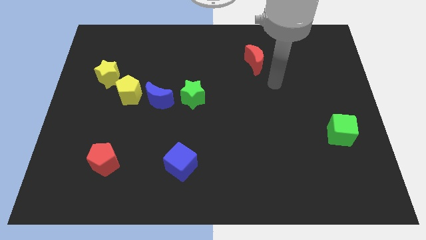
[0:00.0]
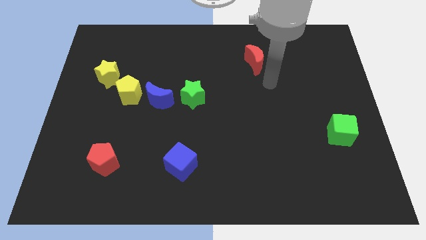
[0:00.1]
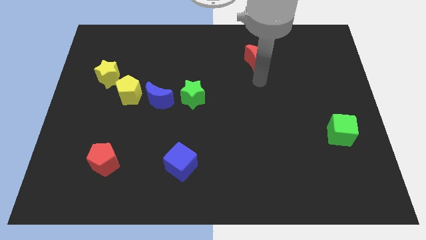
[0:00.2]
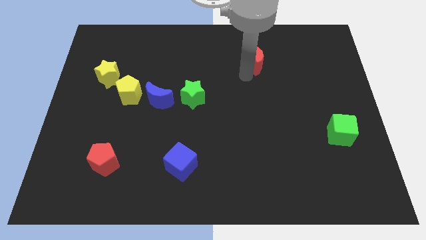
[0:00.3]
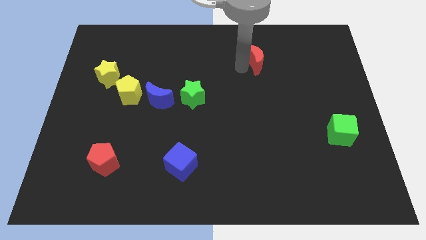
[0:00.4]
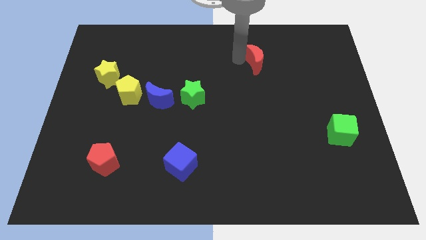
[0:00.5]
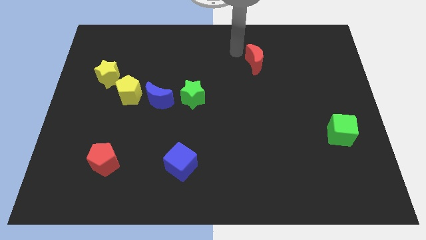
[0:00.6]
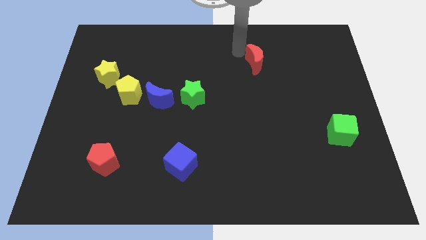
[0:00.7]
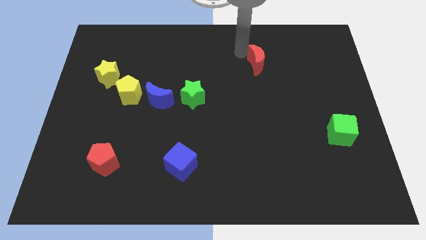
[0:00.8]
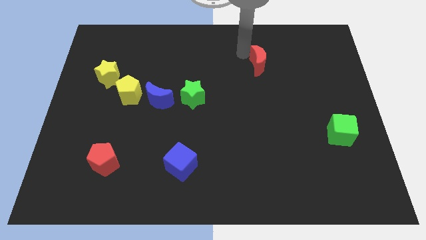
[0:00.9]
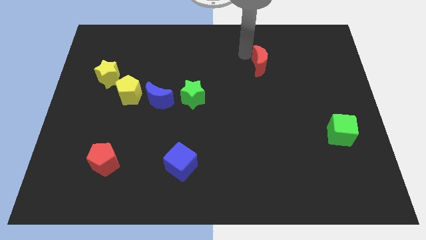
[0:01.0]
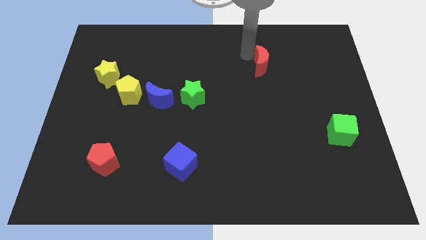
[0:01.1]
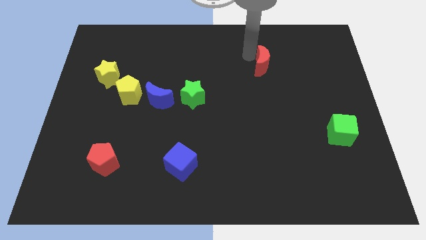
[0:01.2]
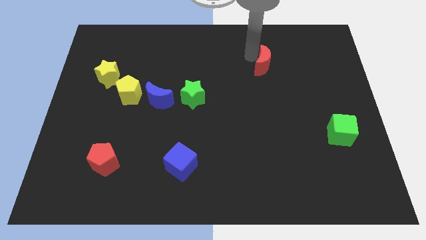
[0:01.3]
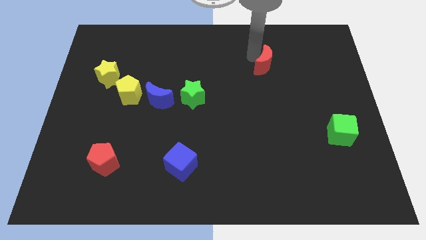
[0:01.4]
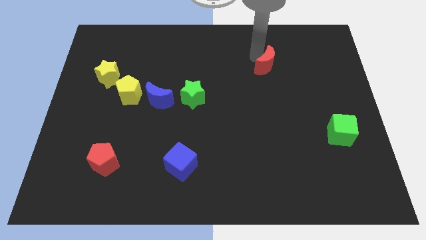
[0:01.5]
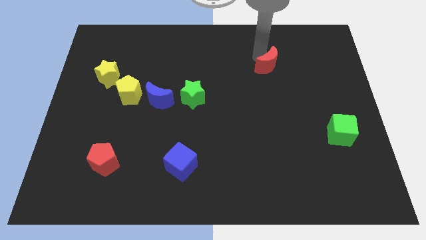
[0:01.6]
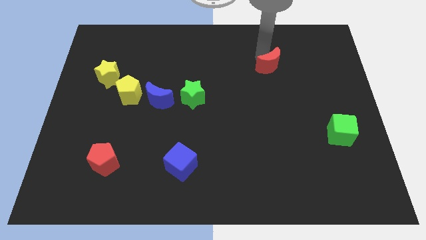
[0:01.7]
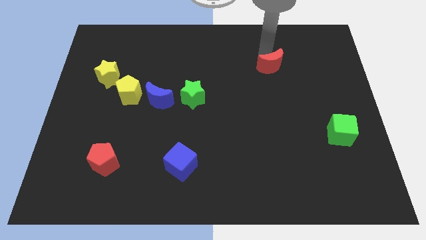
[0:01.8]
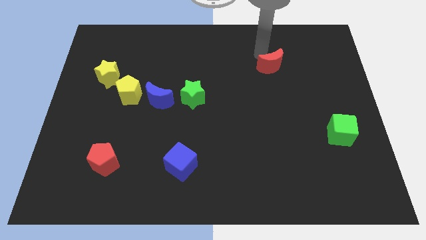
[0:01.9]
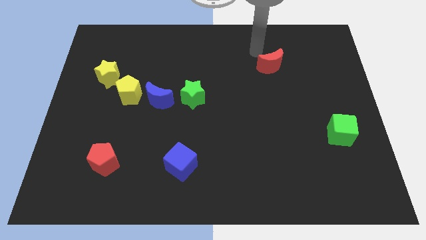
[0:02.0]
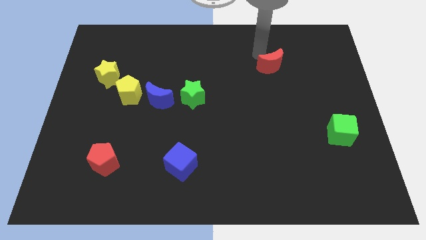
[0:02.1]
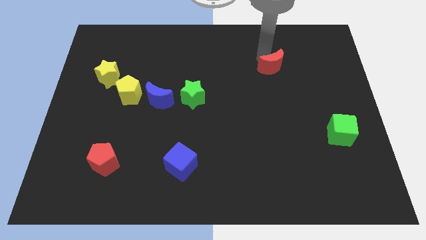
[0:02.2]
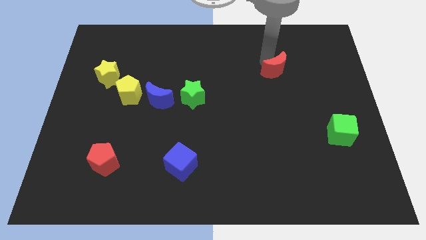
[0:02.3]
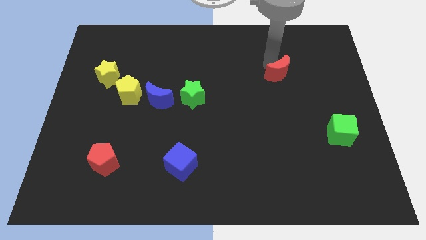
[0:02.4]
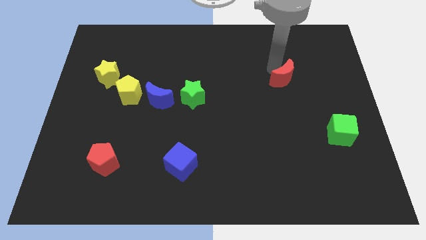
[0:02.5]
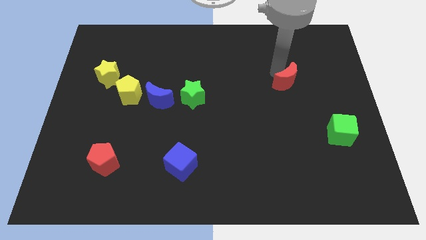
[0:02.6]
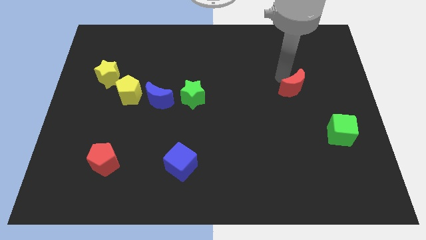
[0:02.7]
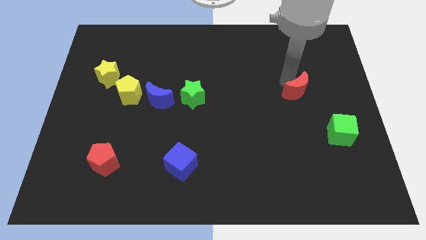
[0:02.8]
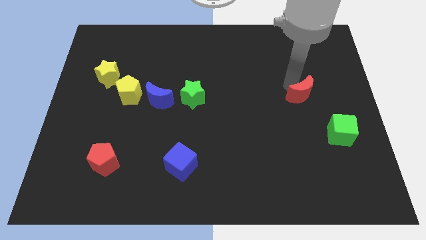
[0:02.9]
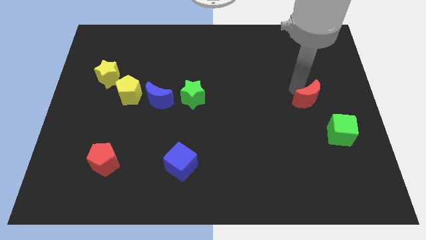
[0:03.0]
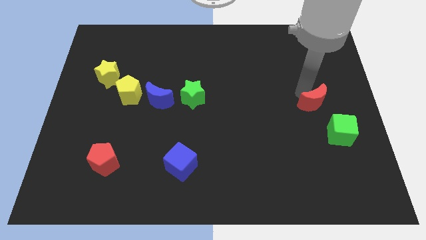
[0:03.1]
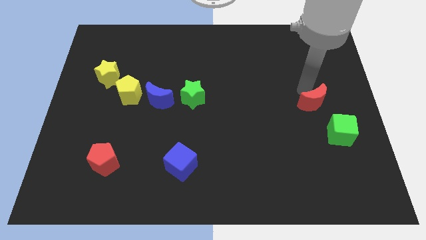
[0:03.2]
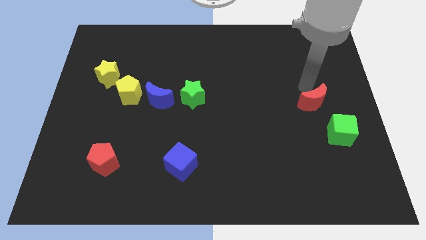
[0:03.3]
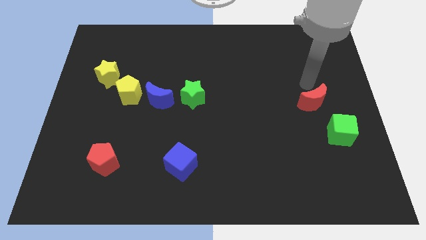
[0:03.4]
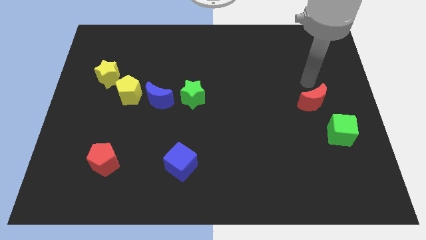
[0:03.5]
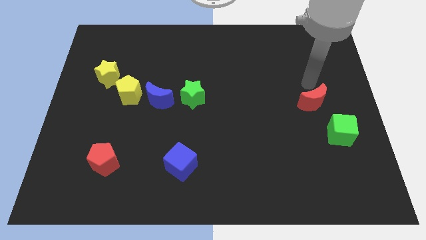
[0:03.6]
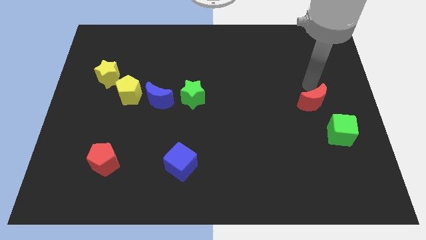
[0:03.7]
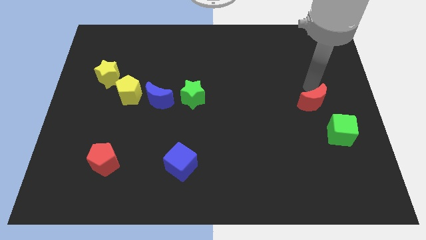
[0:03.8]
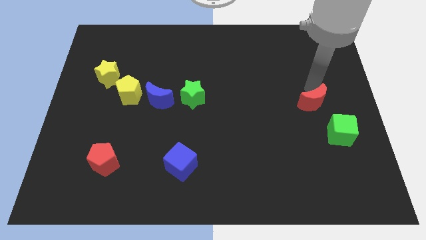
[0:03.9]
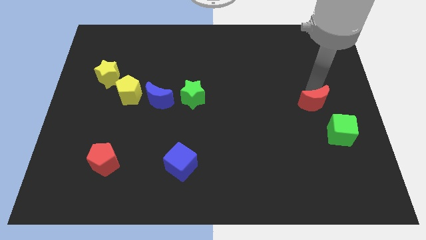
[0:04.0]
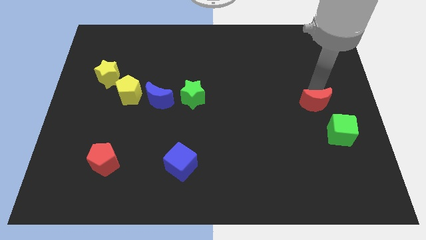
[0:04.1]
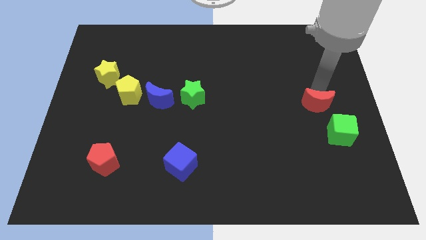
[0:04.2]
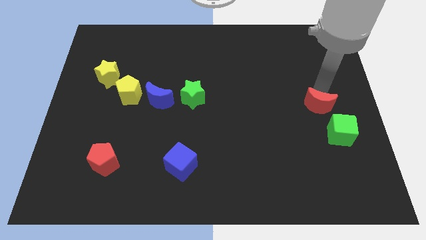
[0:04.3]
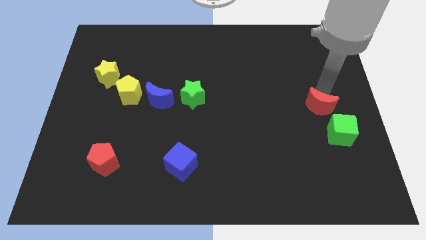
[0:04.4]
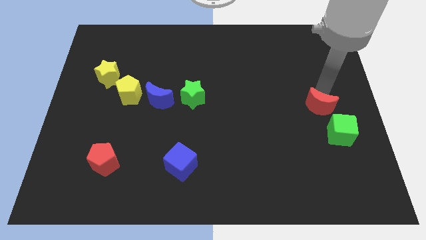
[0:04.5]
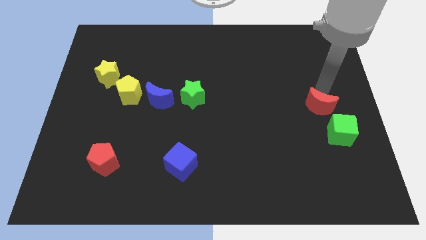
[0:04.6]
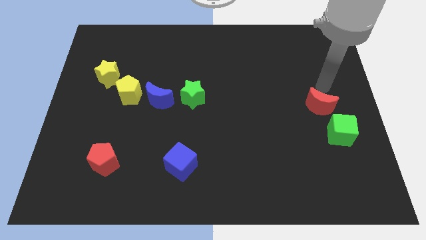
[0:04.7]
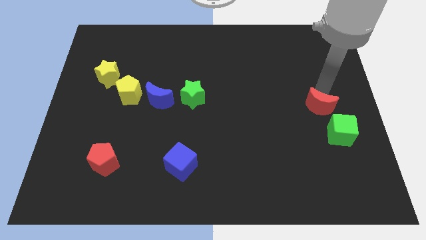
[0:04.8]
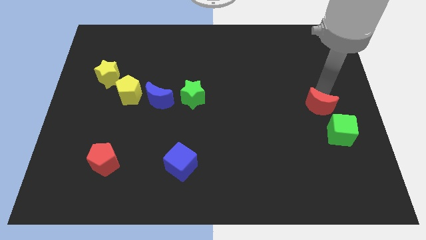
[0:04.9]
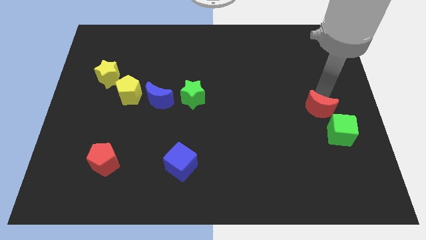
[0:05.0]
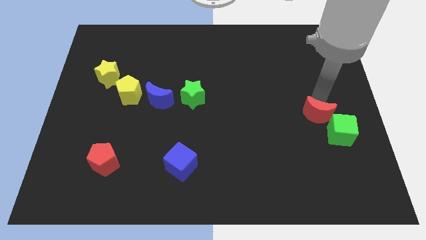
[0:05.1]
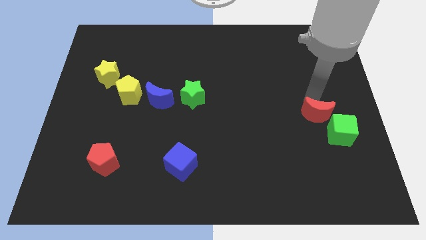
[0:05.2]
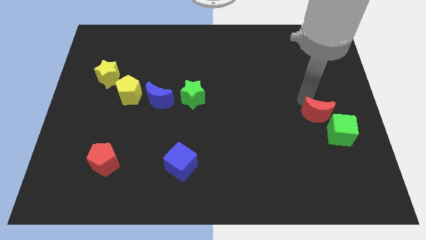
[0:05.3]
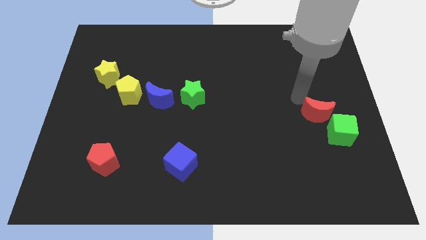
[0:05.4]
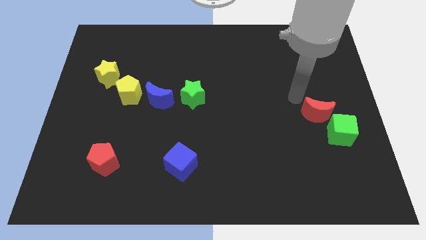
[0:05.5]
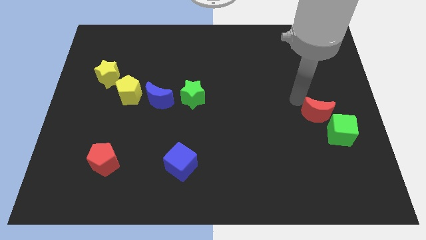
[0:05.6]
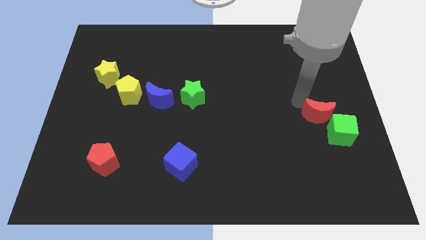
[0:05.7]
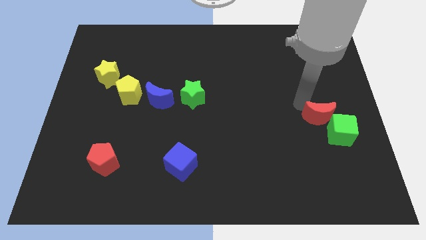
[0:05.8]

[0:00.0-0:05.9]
slide the red moon close to the green cube

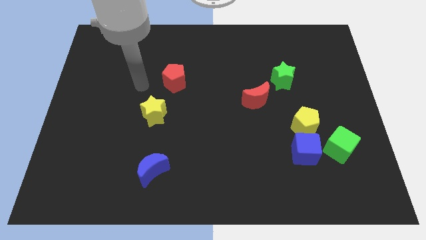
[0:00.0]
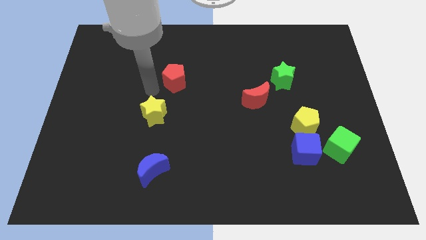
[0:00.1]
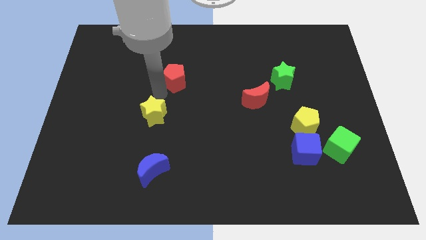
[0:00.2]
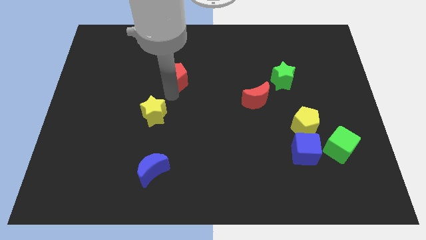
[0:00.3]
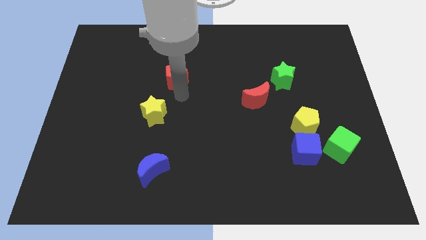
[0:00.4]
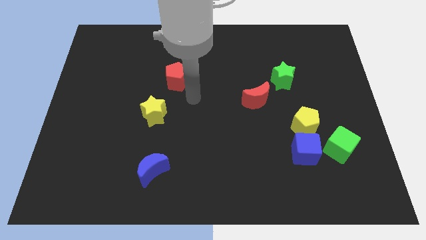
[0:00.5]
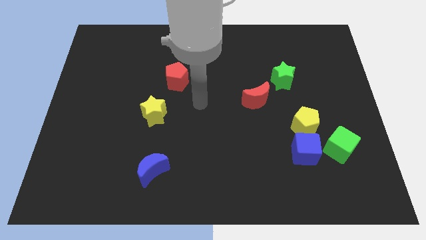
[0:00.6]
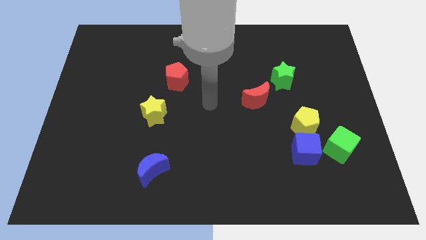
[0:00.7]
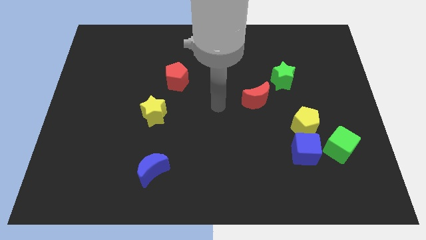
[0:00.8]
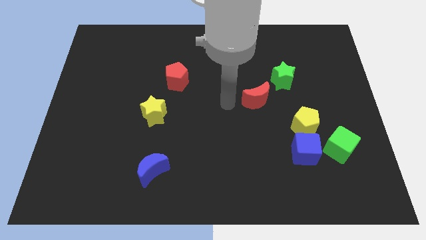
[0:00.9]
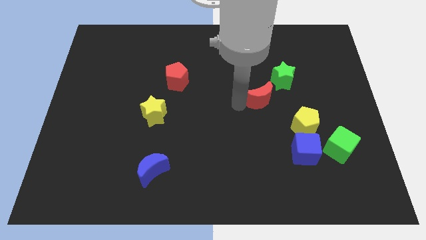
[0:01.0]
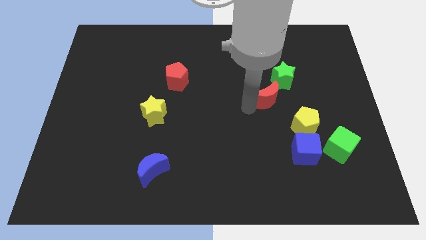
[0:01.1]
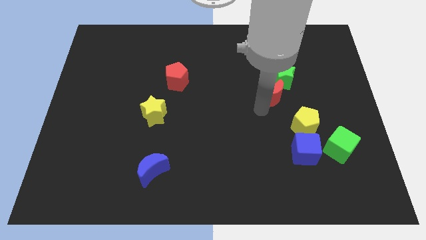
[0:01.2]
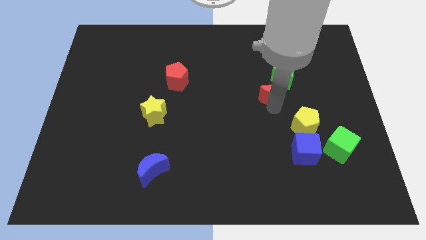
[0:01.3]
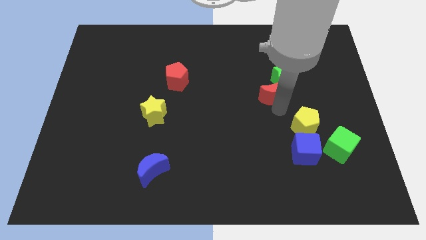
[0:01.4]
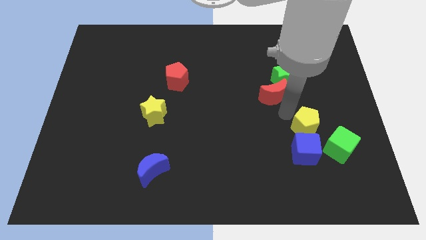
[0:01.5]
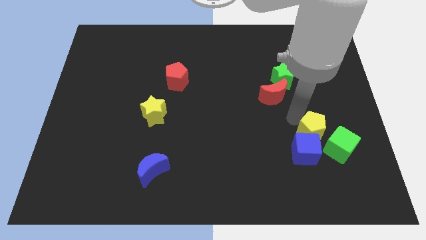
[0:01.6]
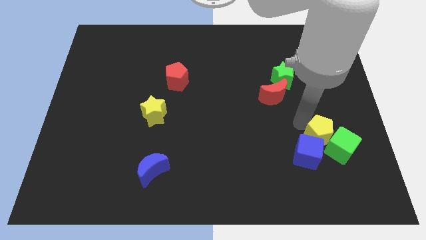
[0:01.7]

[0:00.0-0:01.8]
push the yellow pentagon close to the green cube

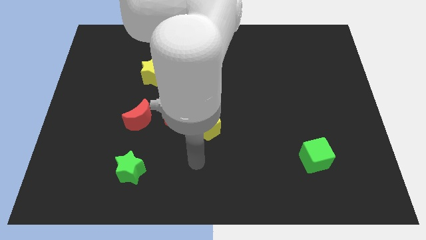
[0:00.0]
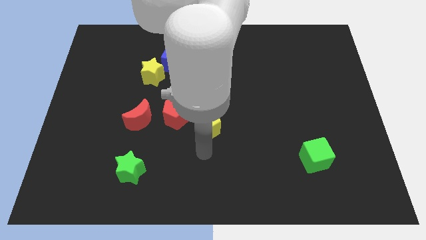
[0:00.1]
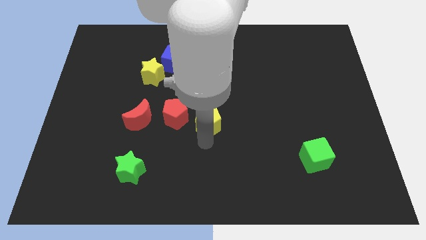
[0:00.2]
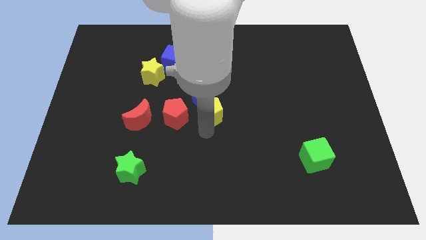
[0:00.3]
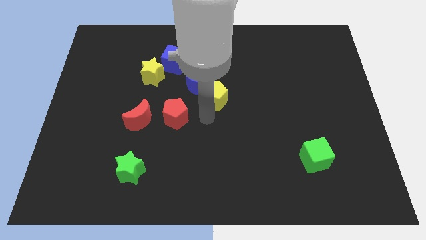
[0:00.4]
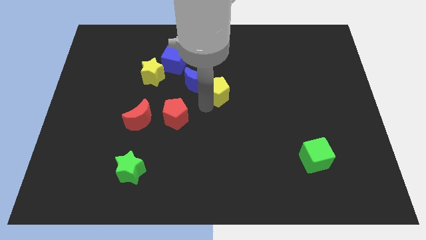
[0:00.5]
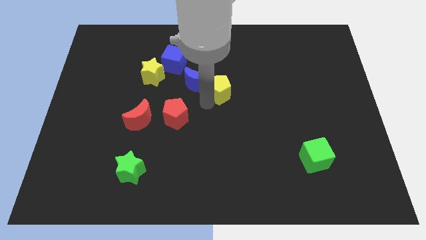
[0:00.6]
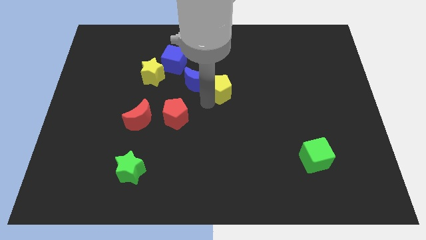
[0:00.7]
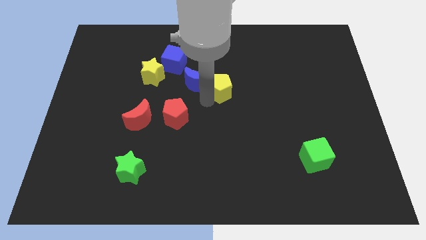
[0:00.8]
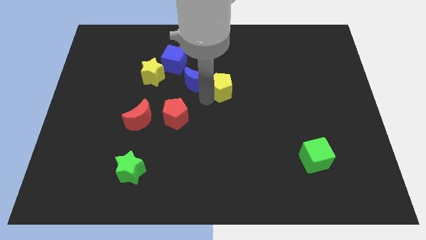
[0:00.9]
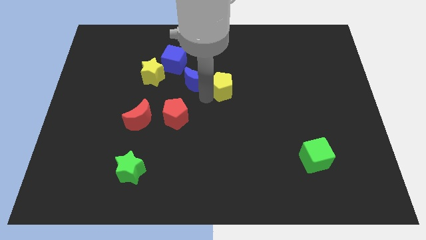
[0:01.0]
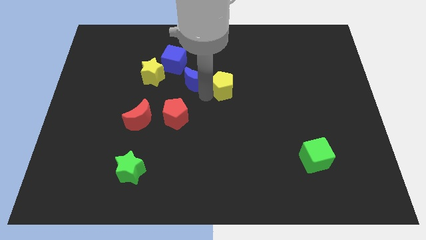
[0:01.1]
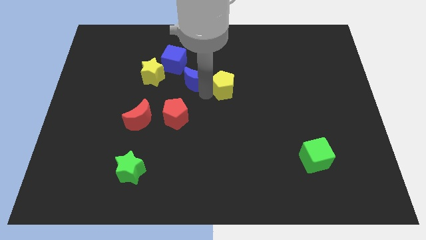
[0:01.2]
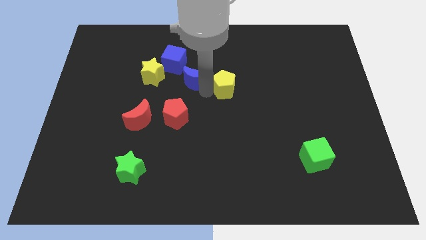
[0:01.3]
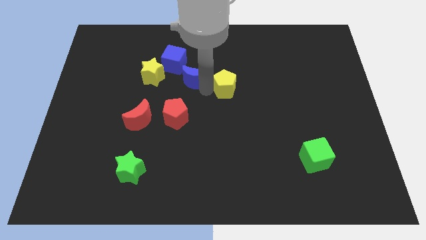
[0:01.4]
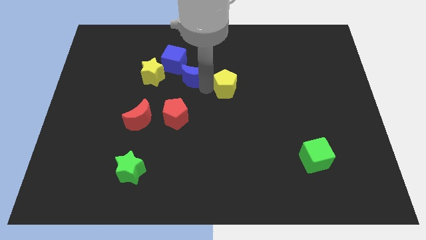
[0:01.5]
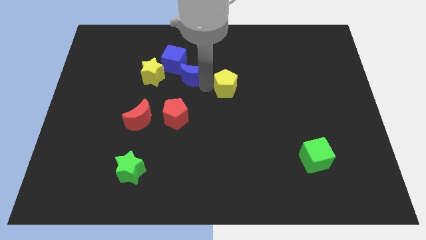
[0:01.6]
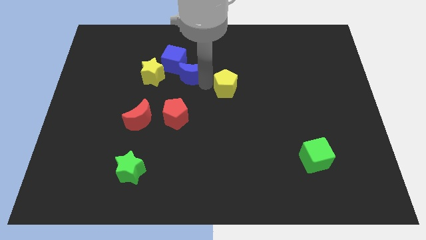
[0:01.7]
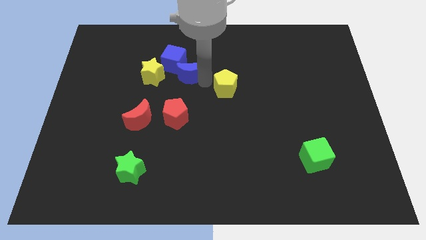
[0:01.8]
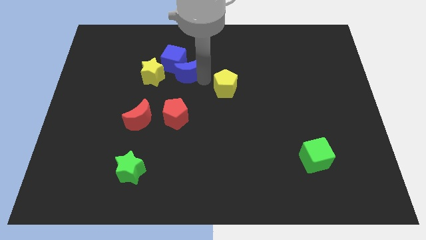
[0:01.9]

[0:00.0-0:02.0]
move the blue moon next to the blue cube
